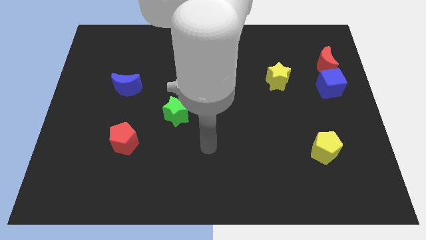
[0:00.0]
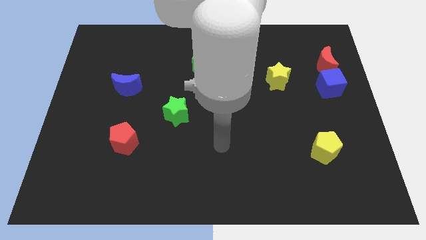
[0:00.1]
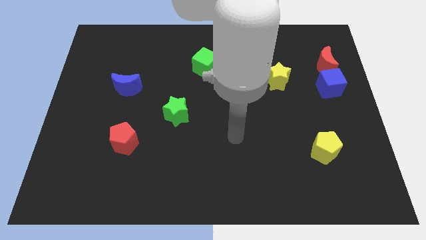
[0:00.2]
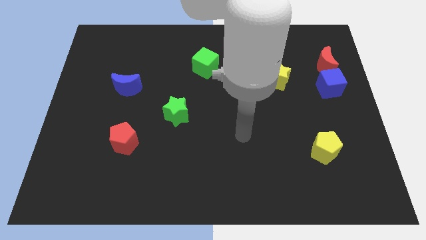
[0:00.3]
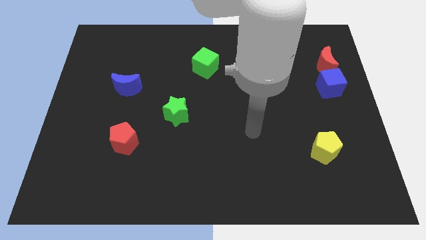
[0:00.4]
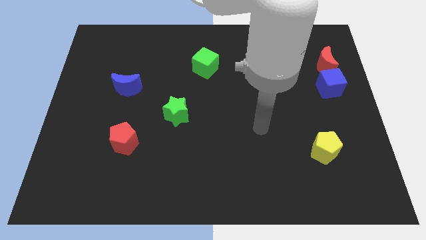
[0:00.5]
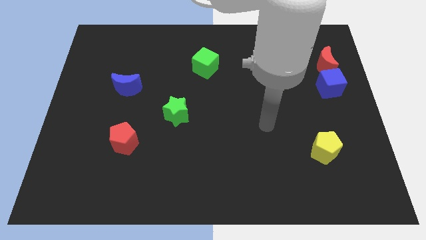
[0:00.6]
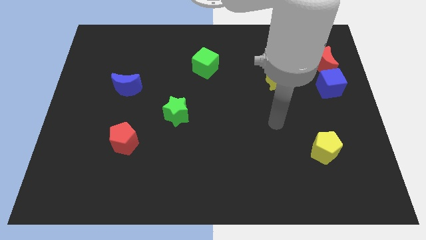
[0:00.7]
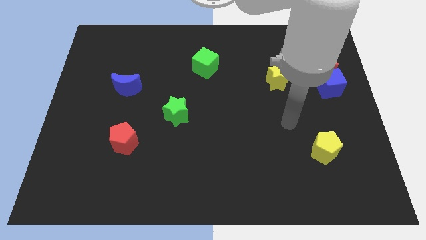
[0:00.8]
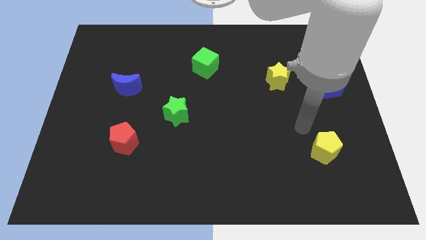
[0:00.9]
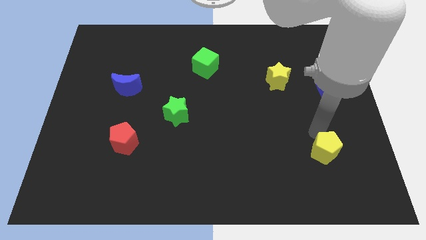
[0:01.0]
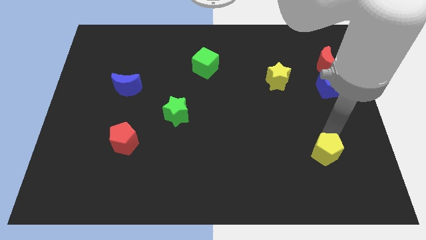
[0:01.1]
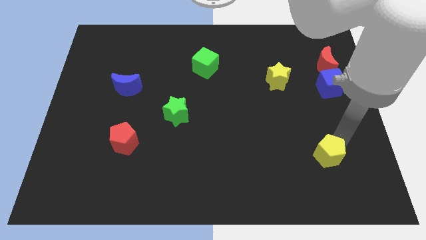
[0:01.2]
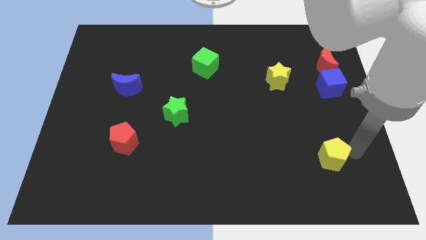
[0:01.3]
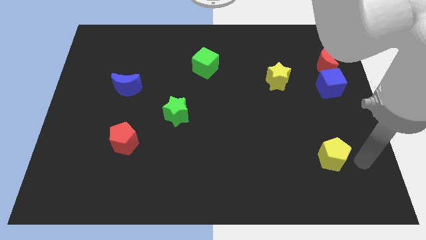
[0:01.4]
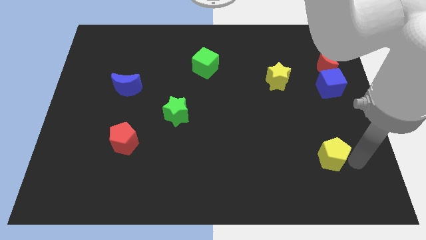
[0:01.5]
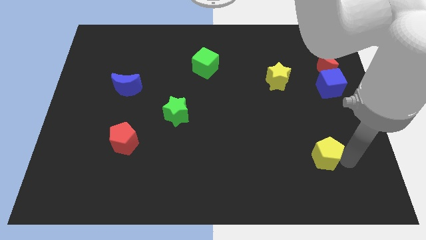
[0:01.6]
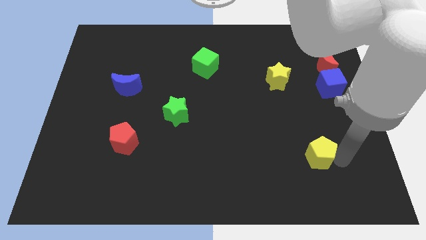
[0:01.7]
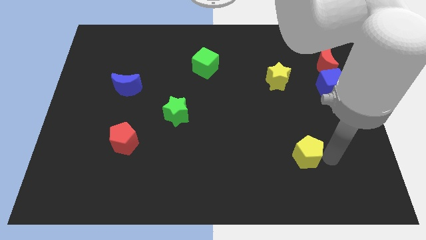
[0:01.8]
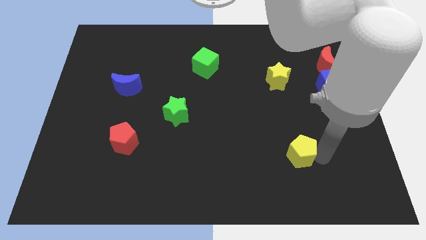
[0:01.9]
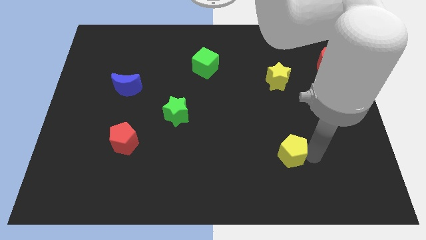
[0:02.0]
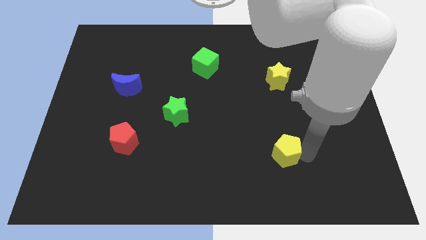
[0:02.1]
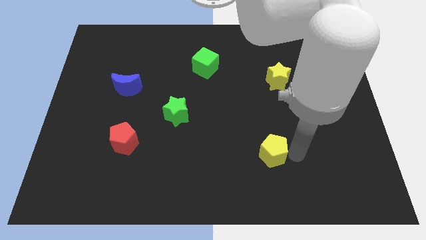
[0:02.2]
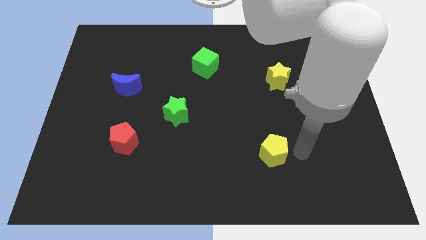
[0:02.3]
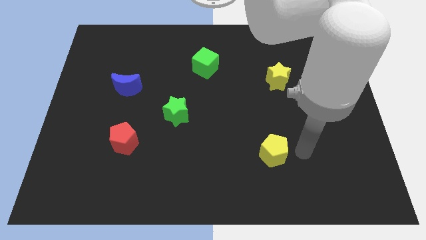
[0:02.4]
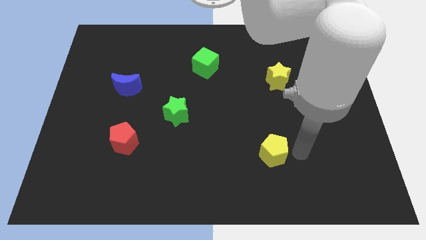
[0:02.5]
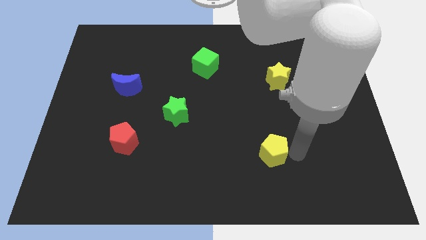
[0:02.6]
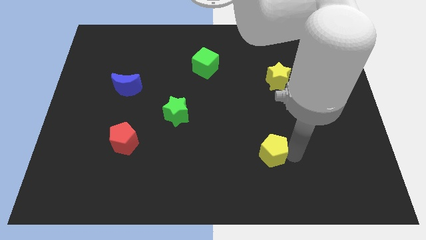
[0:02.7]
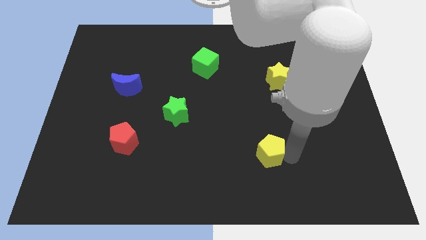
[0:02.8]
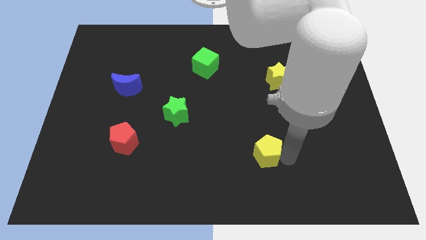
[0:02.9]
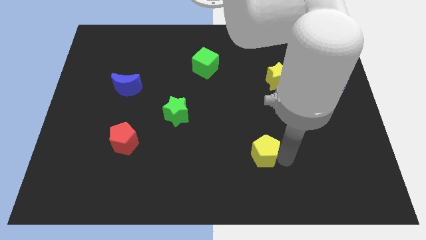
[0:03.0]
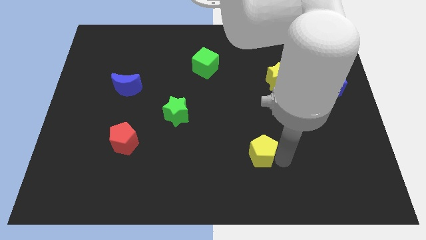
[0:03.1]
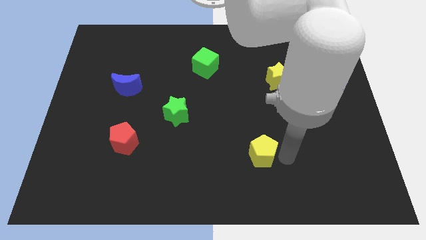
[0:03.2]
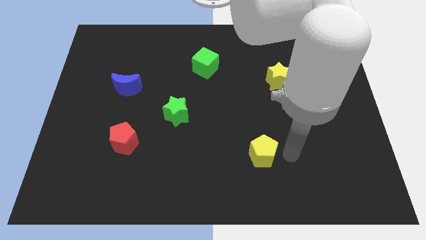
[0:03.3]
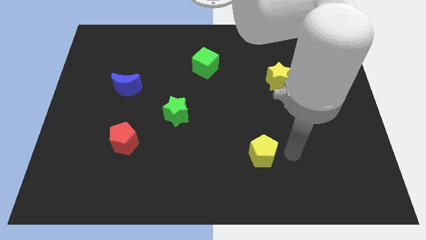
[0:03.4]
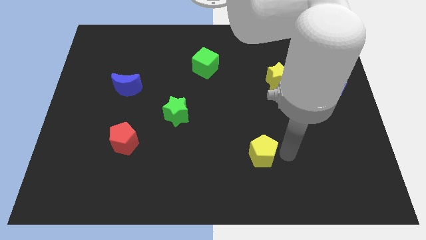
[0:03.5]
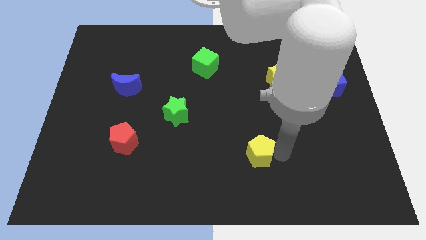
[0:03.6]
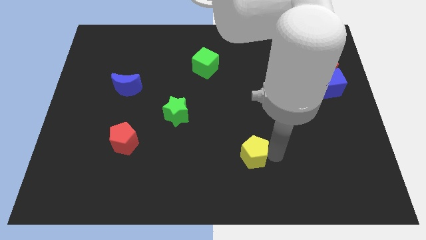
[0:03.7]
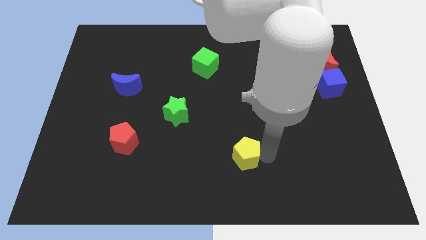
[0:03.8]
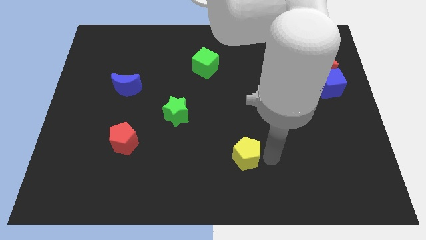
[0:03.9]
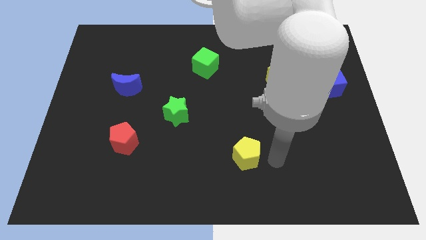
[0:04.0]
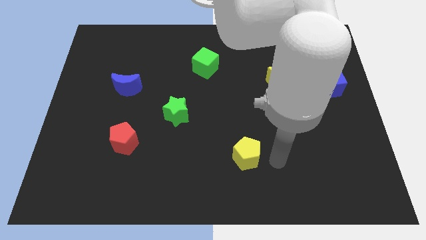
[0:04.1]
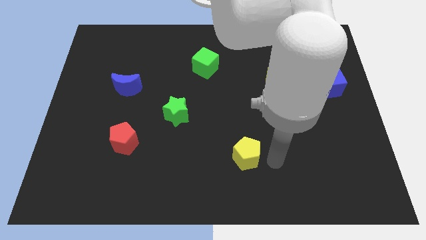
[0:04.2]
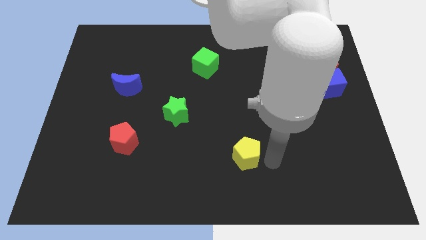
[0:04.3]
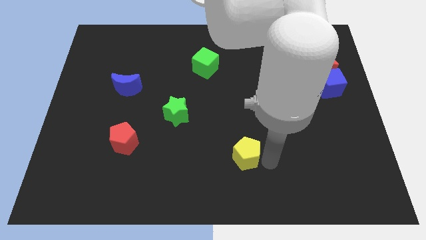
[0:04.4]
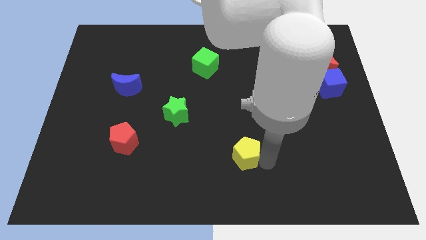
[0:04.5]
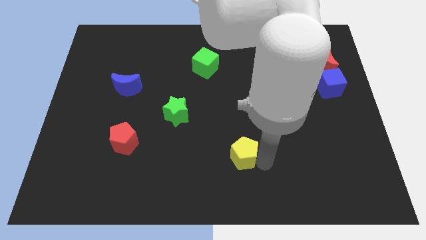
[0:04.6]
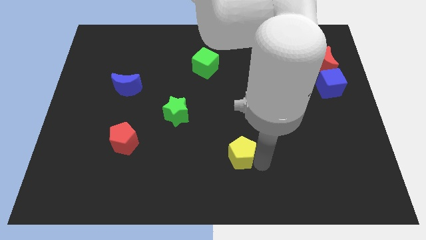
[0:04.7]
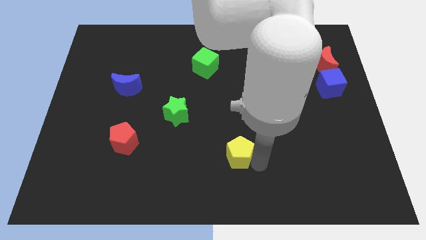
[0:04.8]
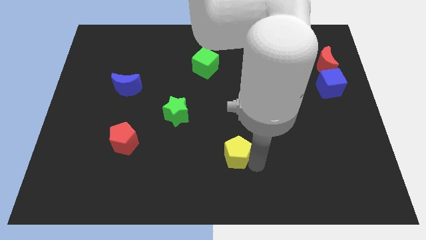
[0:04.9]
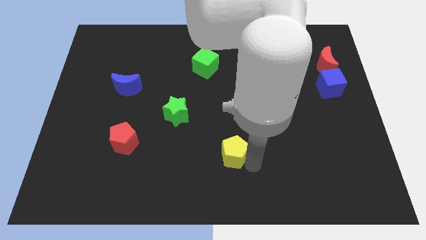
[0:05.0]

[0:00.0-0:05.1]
move the yellow pentagon to the left

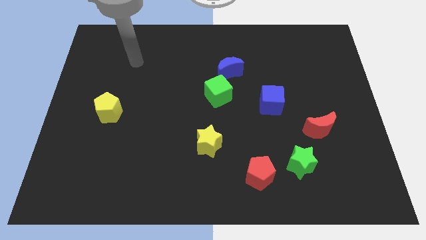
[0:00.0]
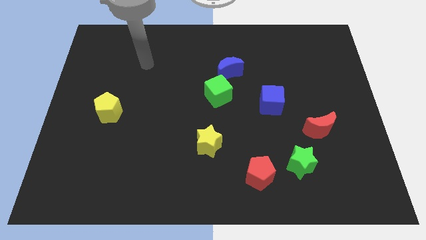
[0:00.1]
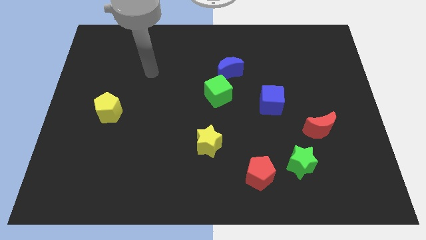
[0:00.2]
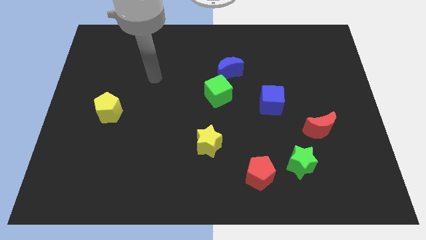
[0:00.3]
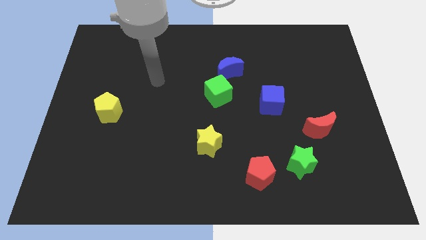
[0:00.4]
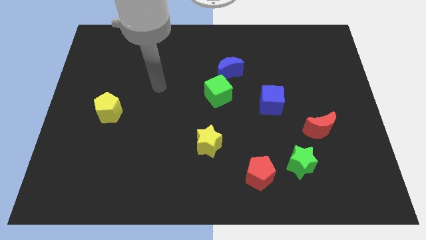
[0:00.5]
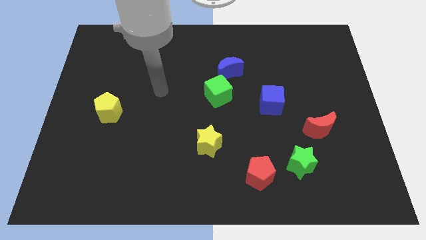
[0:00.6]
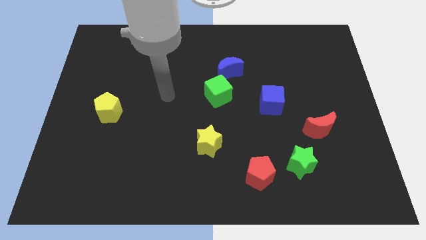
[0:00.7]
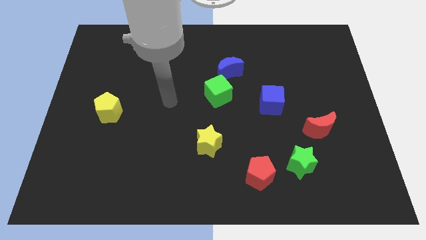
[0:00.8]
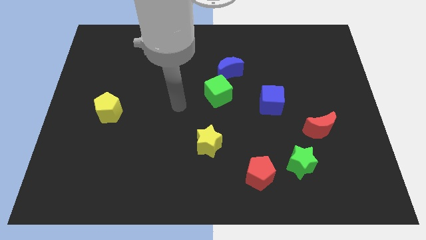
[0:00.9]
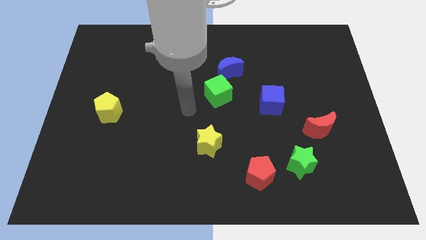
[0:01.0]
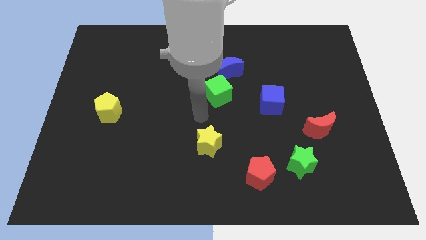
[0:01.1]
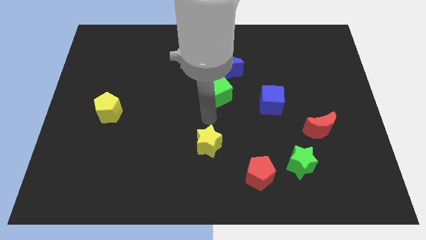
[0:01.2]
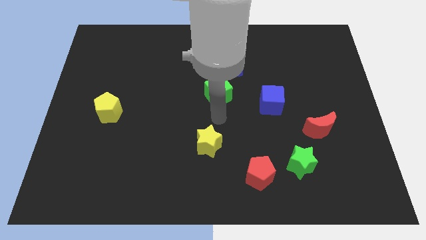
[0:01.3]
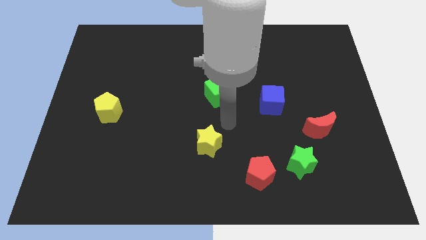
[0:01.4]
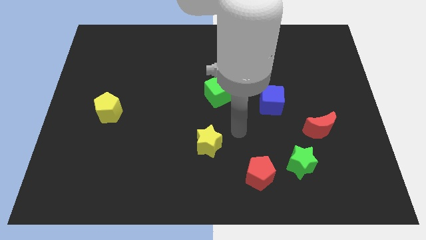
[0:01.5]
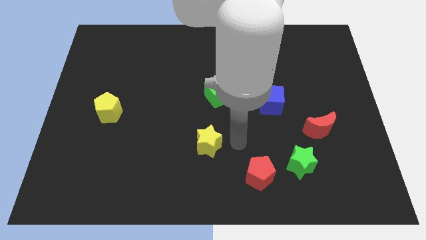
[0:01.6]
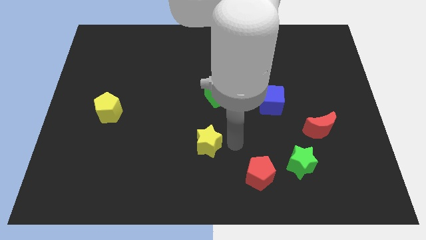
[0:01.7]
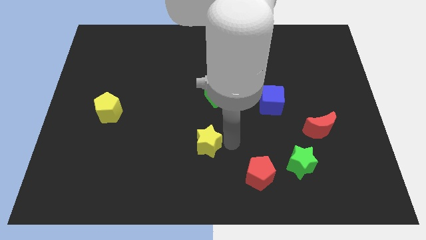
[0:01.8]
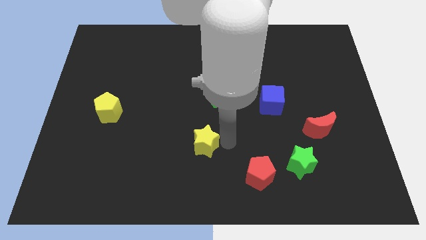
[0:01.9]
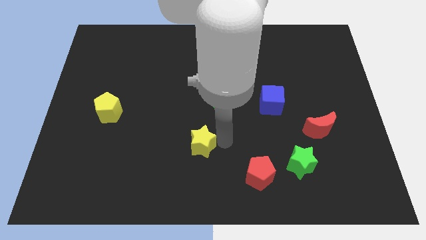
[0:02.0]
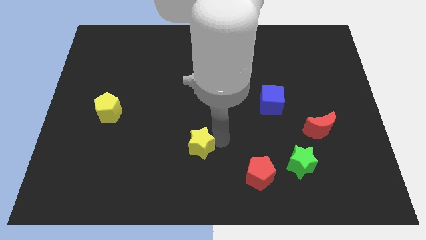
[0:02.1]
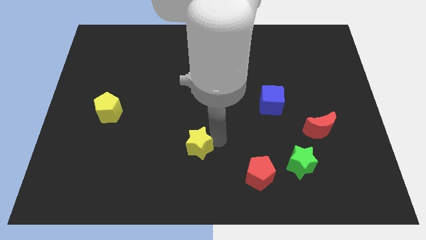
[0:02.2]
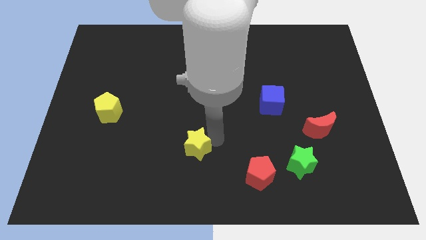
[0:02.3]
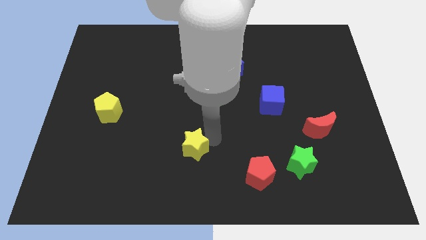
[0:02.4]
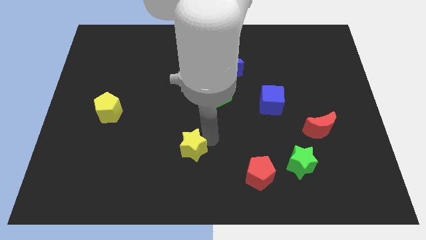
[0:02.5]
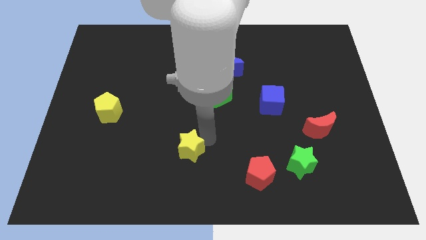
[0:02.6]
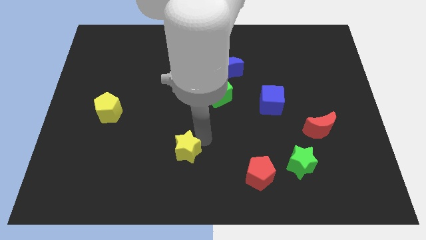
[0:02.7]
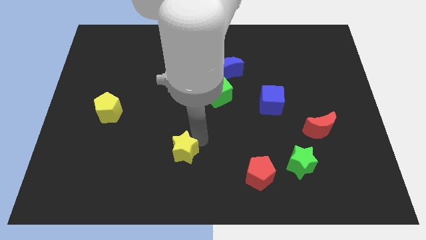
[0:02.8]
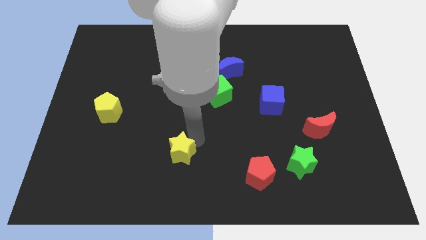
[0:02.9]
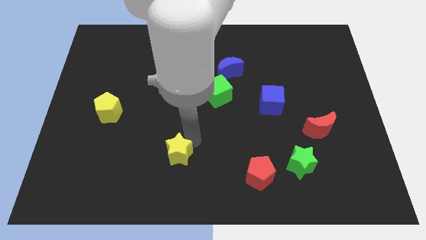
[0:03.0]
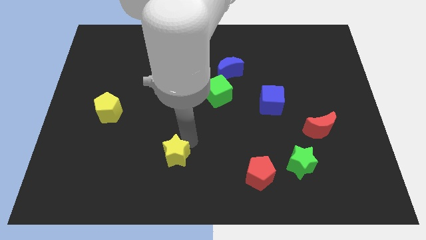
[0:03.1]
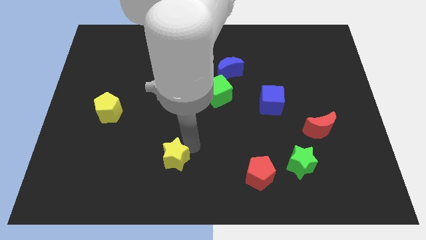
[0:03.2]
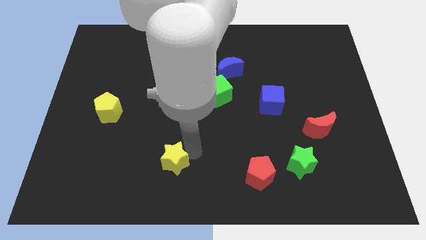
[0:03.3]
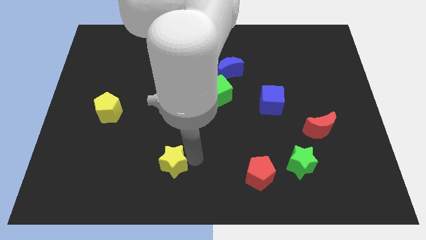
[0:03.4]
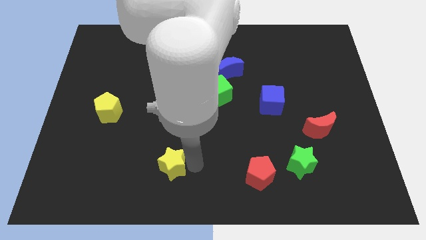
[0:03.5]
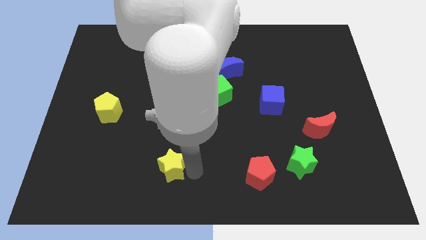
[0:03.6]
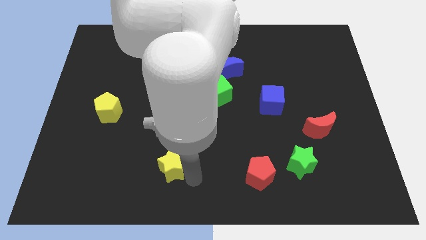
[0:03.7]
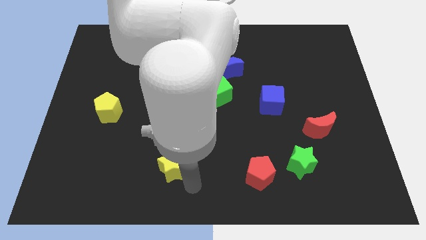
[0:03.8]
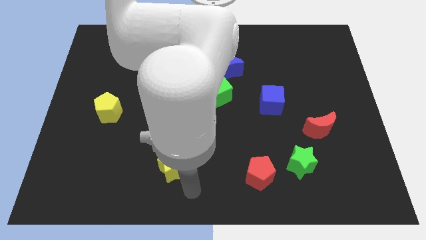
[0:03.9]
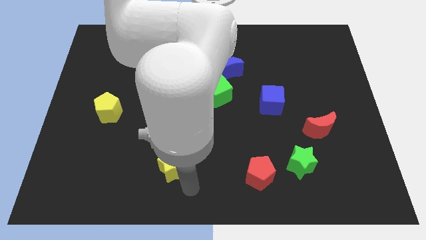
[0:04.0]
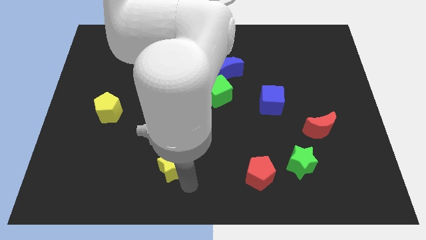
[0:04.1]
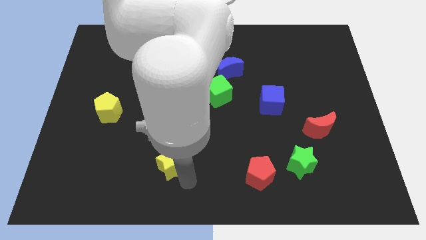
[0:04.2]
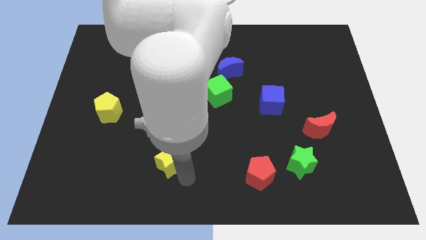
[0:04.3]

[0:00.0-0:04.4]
slightly move the yellow star left
